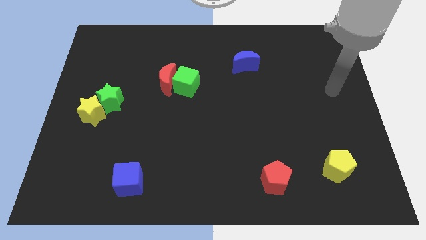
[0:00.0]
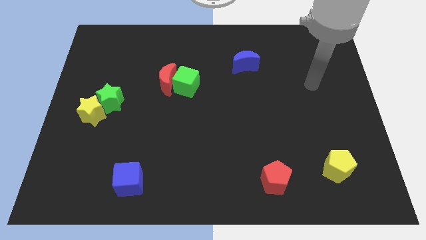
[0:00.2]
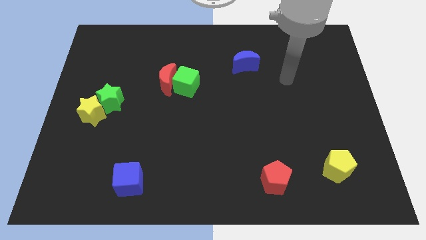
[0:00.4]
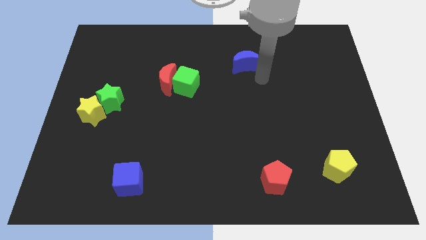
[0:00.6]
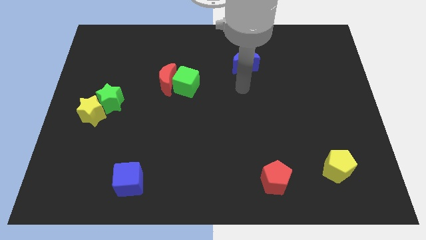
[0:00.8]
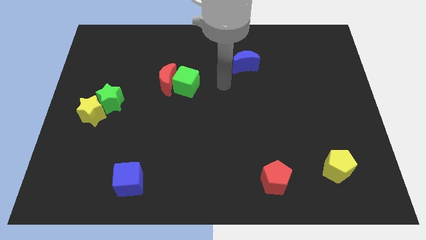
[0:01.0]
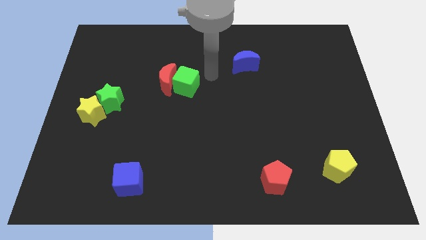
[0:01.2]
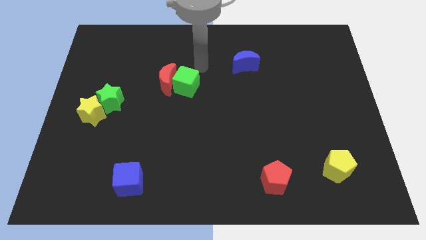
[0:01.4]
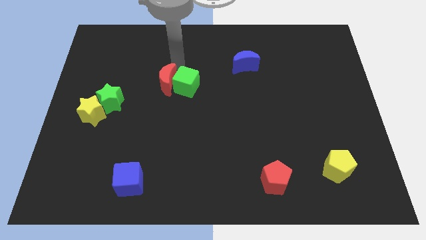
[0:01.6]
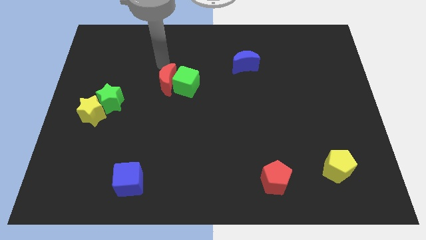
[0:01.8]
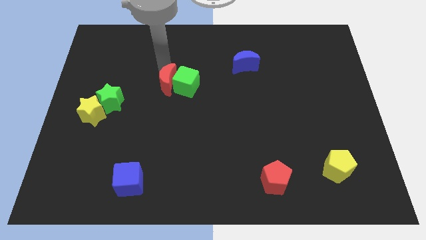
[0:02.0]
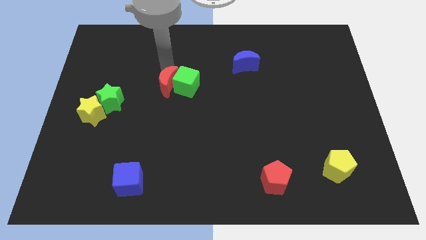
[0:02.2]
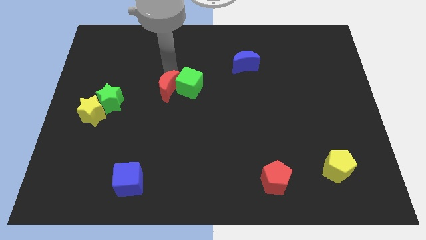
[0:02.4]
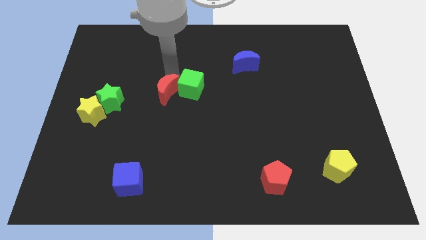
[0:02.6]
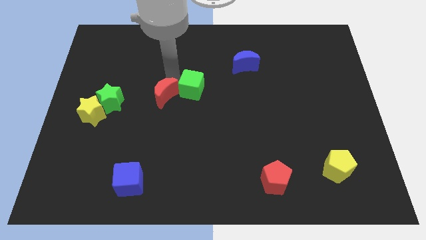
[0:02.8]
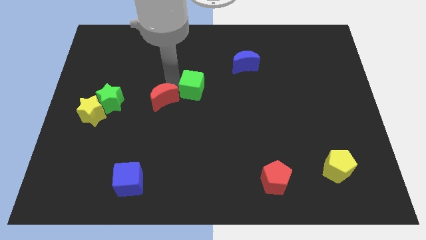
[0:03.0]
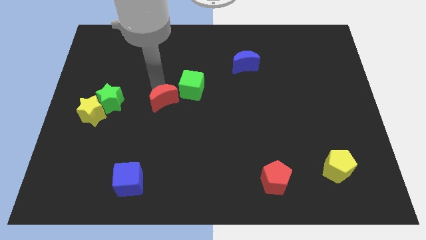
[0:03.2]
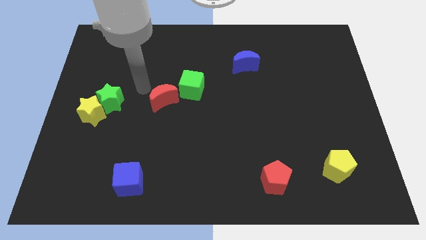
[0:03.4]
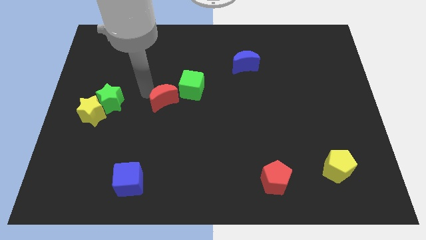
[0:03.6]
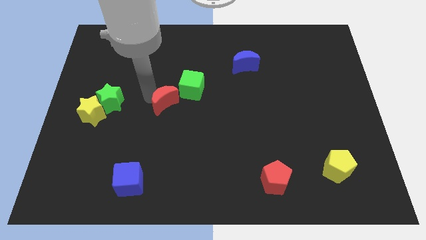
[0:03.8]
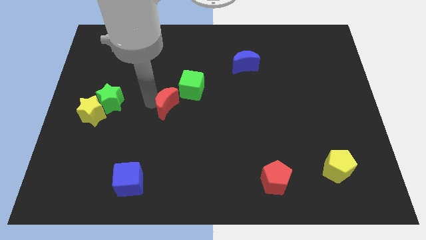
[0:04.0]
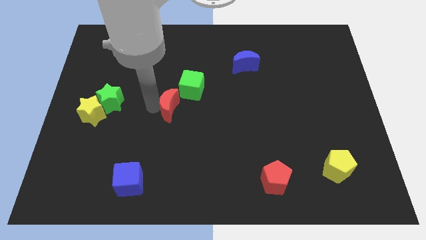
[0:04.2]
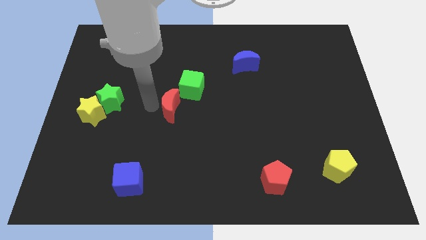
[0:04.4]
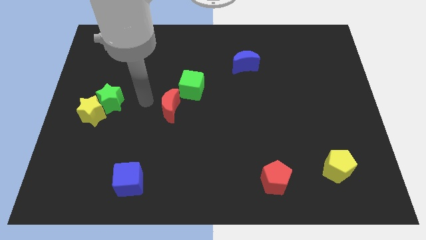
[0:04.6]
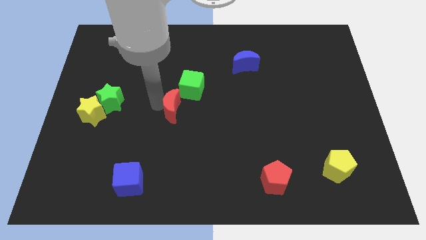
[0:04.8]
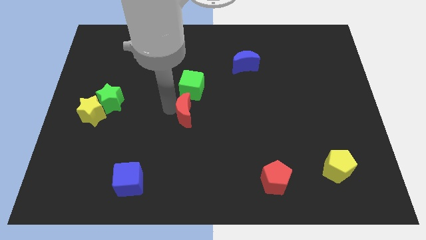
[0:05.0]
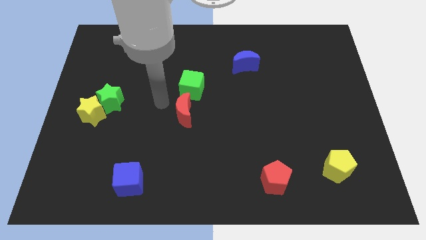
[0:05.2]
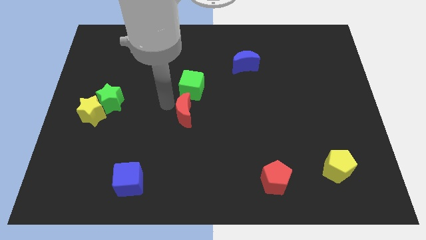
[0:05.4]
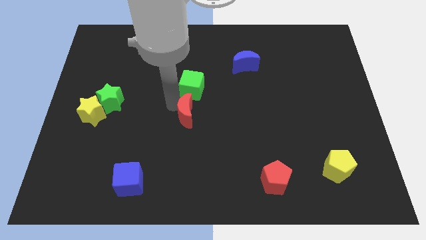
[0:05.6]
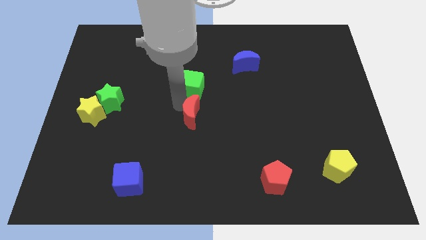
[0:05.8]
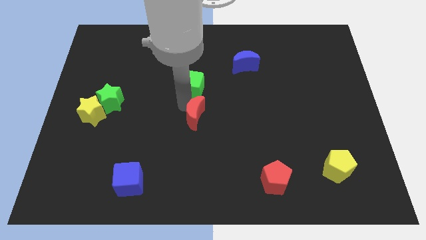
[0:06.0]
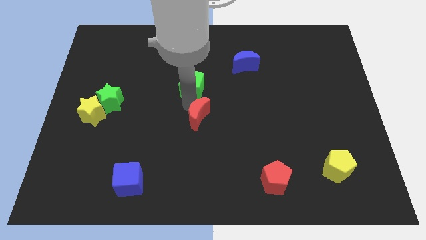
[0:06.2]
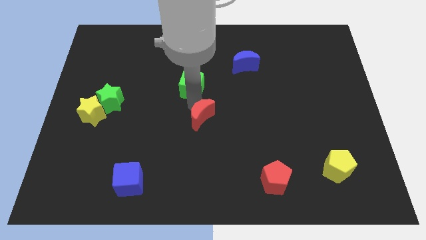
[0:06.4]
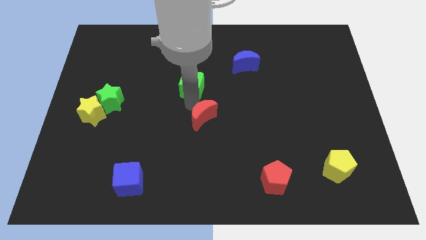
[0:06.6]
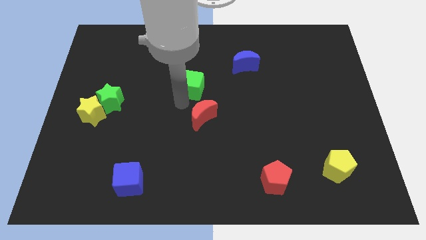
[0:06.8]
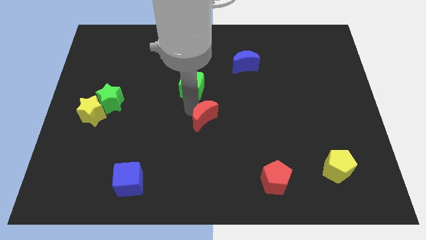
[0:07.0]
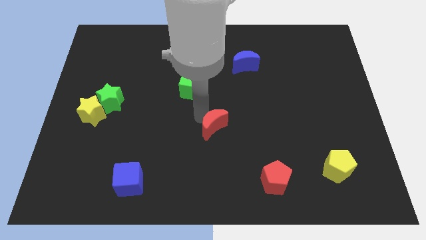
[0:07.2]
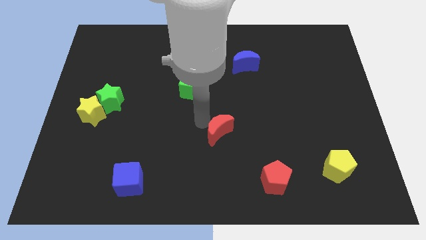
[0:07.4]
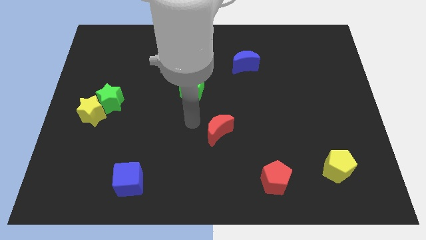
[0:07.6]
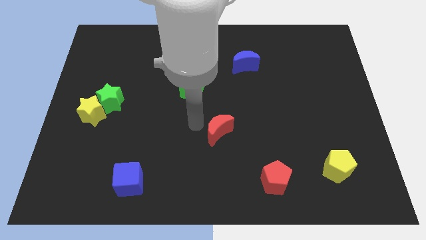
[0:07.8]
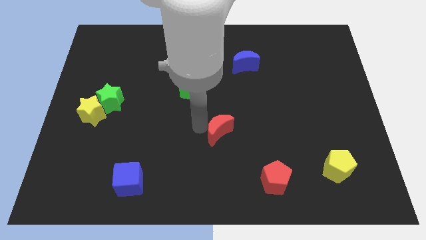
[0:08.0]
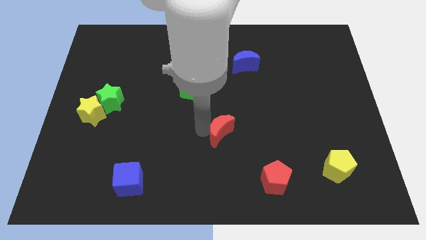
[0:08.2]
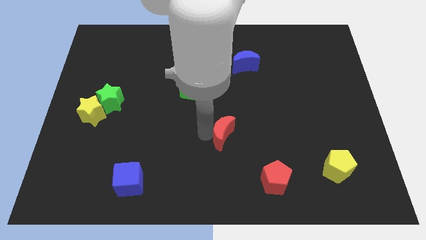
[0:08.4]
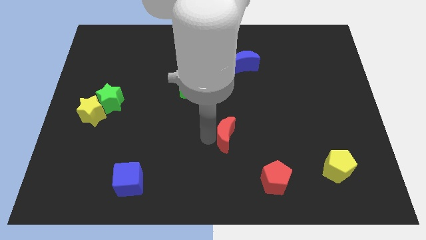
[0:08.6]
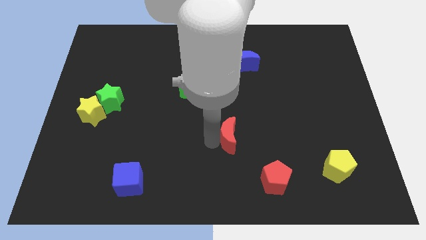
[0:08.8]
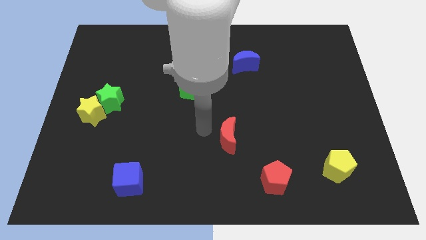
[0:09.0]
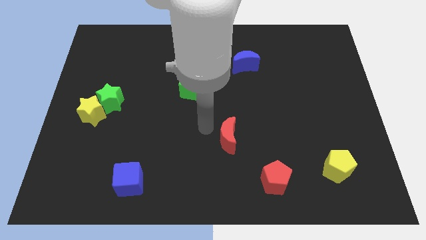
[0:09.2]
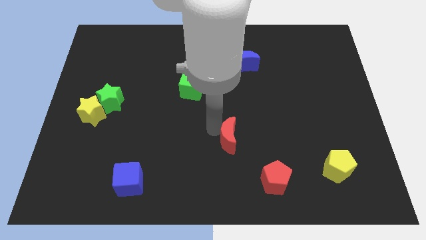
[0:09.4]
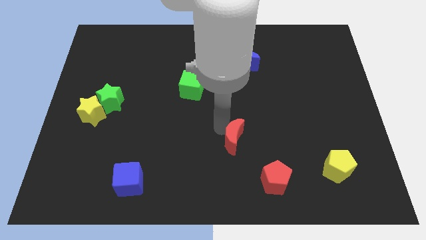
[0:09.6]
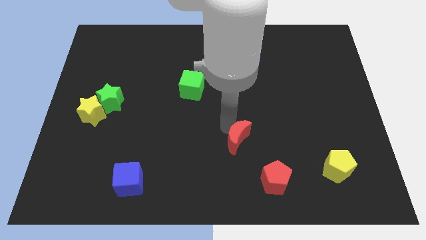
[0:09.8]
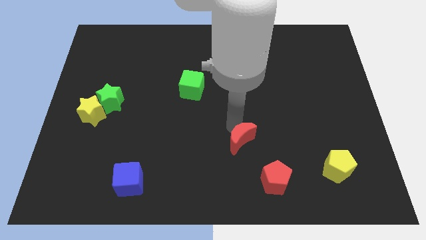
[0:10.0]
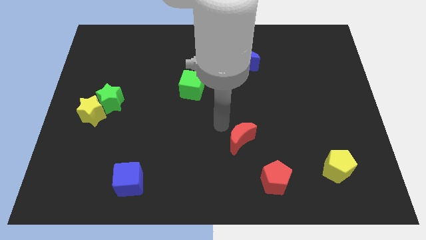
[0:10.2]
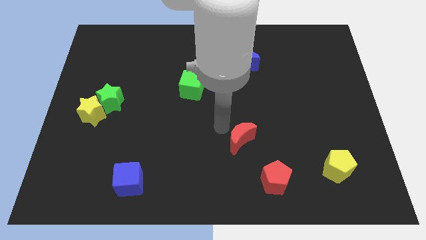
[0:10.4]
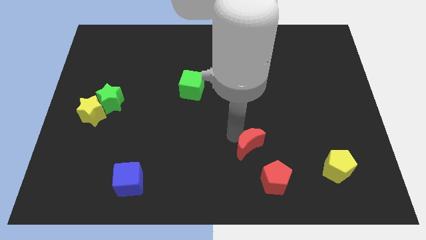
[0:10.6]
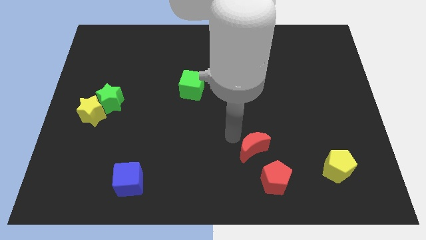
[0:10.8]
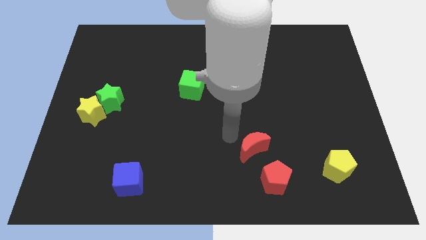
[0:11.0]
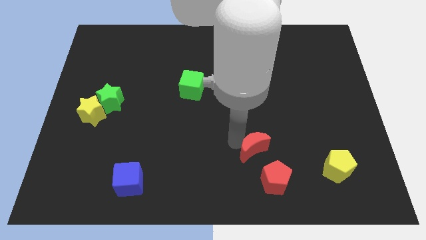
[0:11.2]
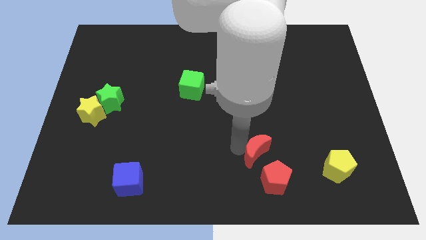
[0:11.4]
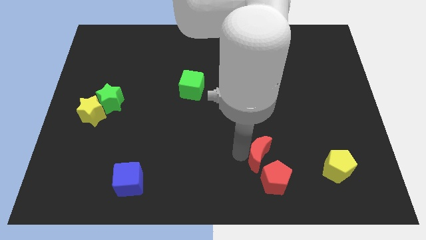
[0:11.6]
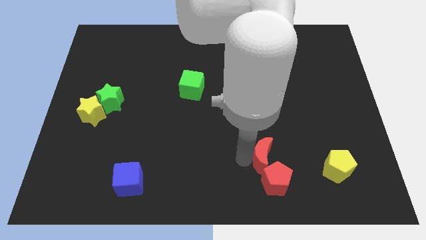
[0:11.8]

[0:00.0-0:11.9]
slide the red moon to the left of the yellow pentagon

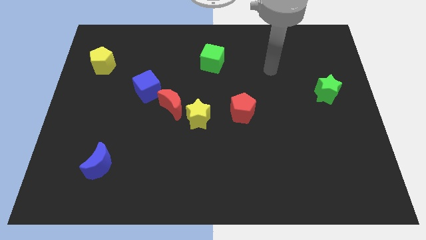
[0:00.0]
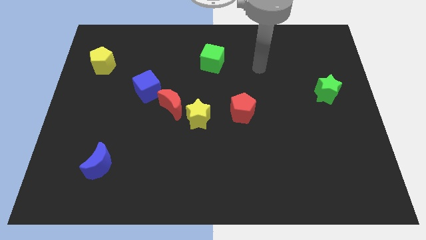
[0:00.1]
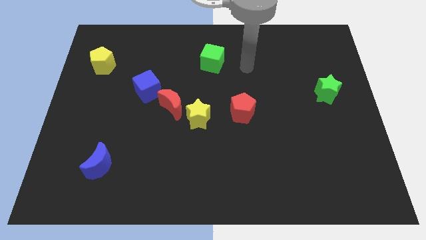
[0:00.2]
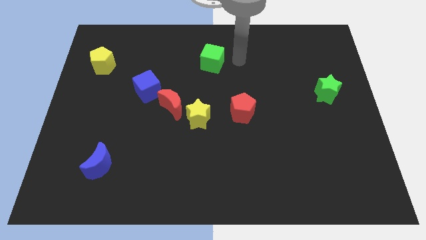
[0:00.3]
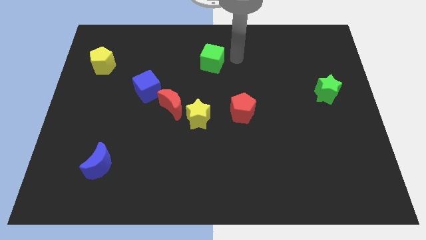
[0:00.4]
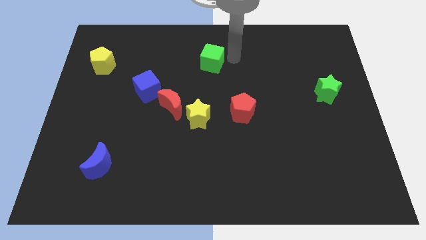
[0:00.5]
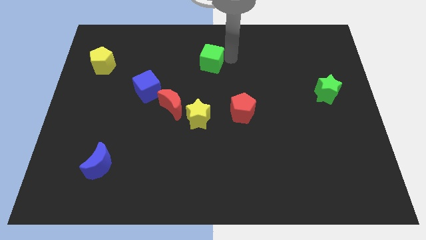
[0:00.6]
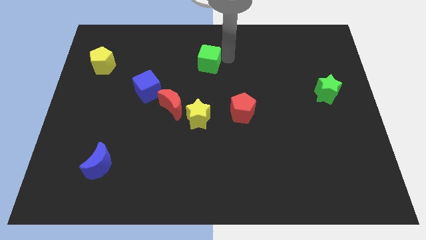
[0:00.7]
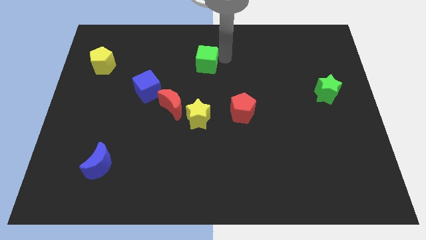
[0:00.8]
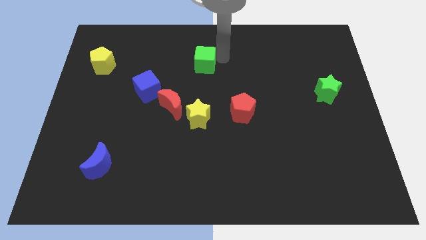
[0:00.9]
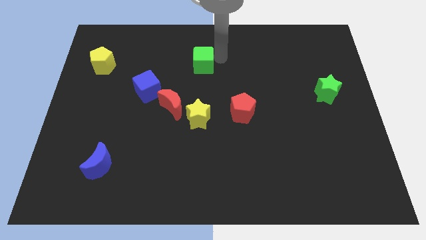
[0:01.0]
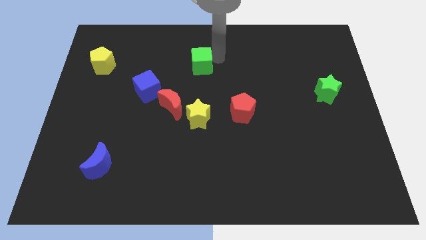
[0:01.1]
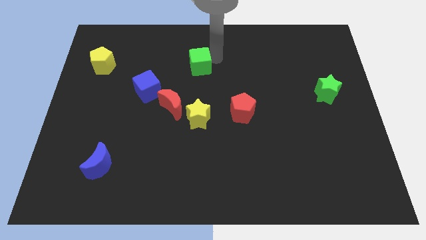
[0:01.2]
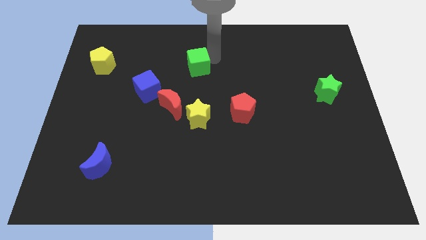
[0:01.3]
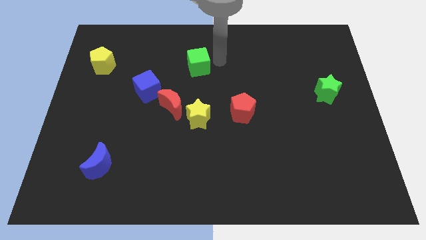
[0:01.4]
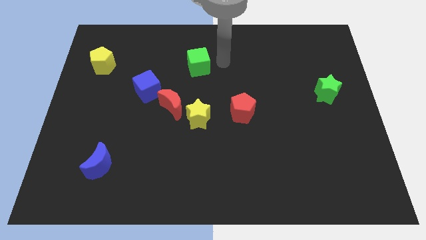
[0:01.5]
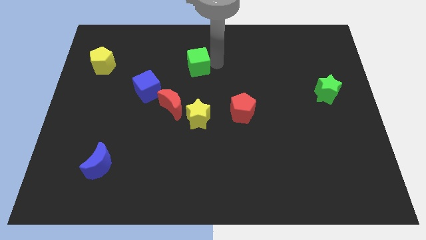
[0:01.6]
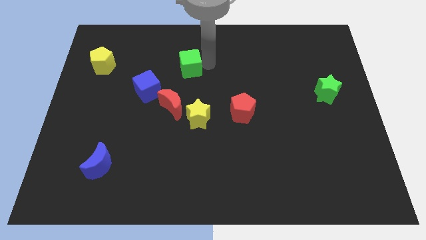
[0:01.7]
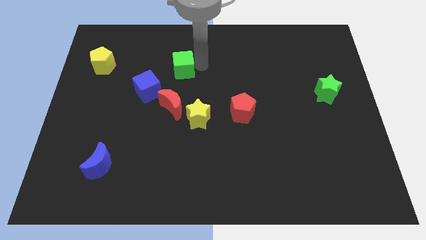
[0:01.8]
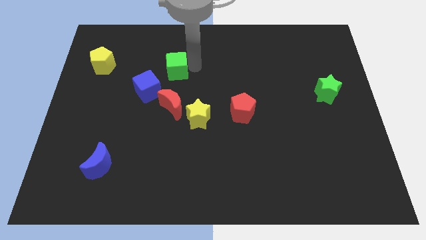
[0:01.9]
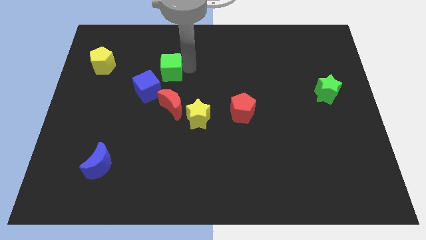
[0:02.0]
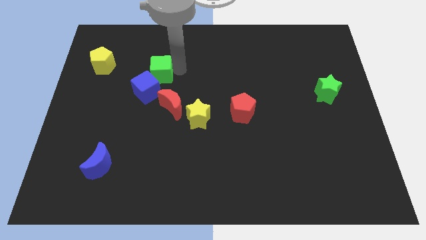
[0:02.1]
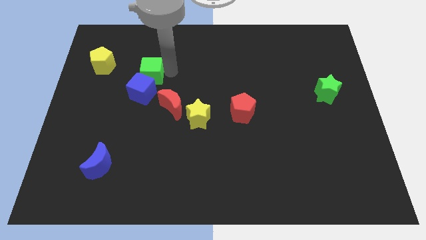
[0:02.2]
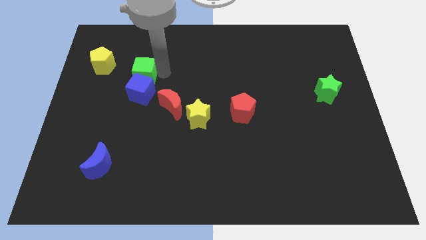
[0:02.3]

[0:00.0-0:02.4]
slide the green cube diagonally up and to the left of the blue cube

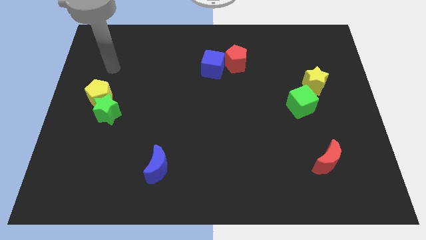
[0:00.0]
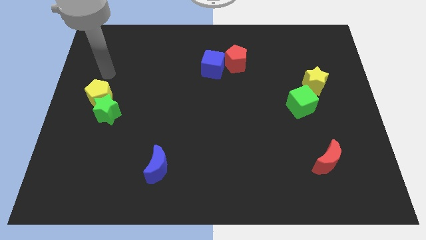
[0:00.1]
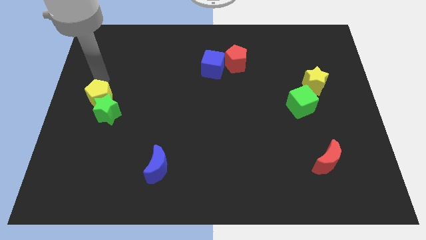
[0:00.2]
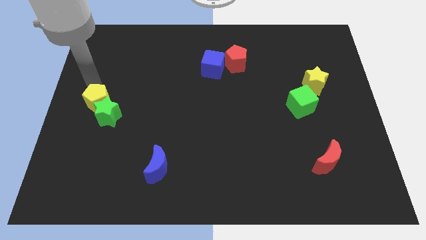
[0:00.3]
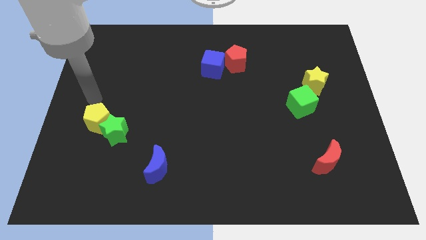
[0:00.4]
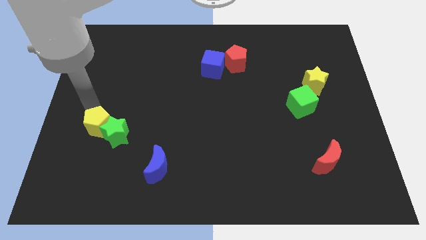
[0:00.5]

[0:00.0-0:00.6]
move the green star diagonally up and to the left of the blue moon
